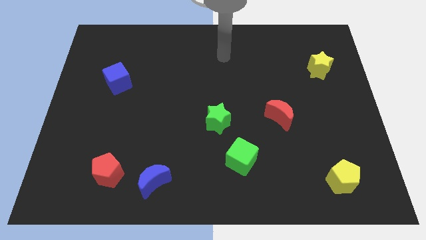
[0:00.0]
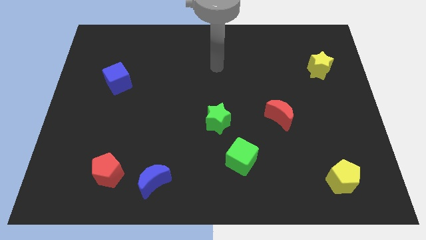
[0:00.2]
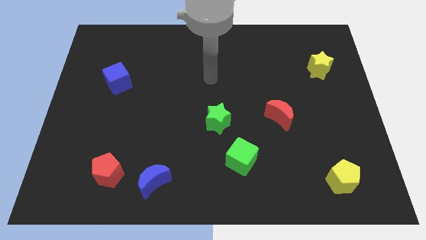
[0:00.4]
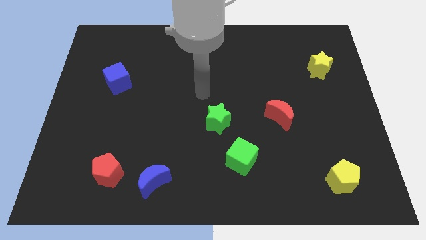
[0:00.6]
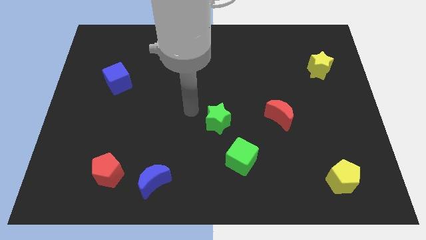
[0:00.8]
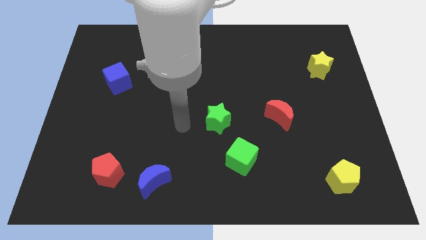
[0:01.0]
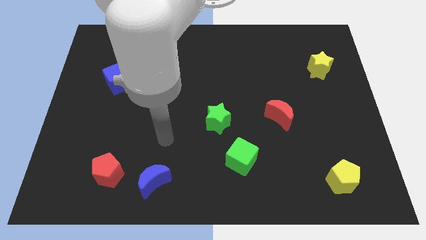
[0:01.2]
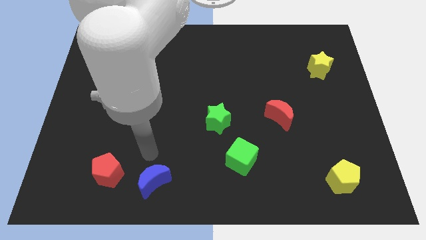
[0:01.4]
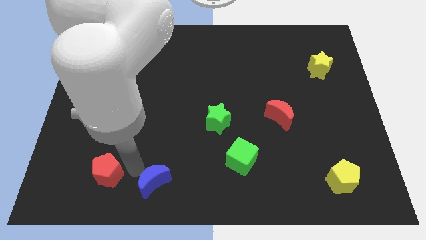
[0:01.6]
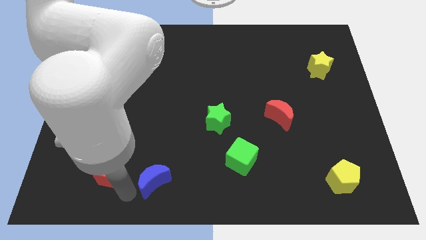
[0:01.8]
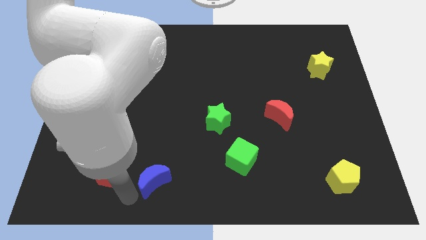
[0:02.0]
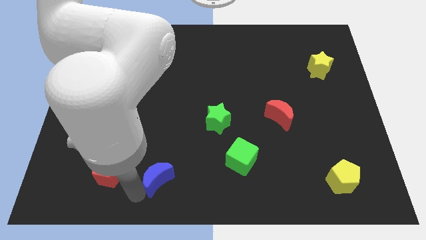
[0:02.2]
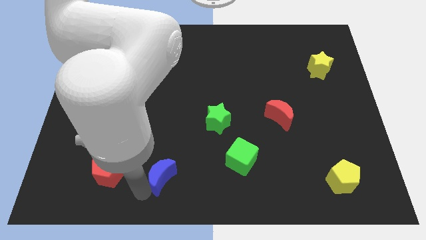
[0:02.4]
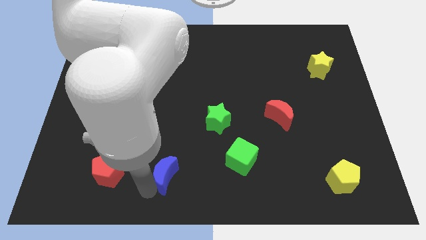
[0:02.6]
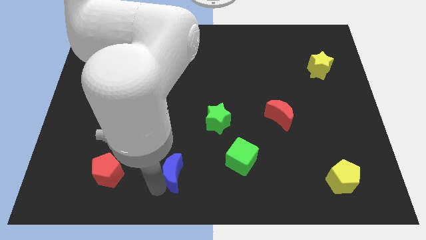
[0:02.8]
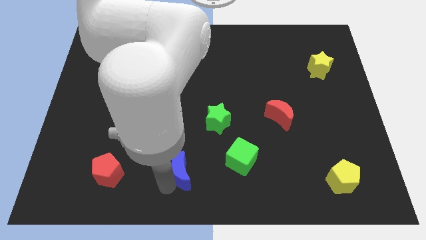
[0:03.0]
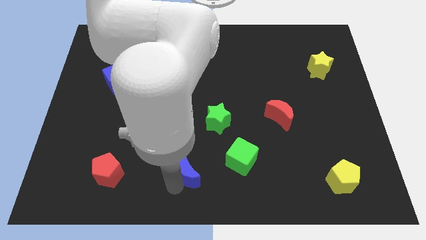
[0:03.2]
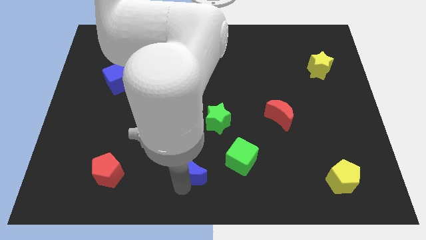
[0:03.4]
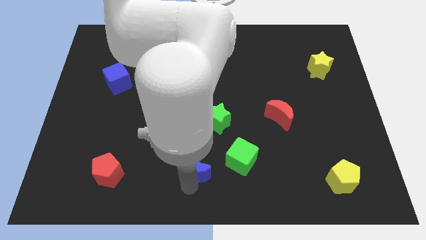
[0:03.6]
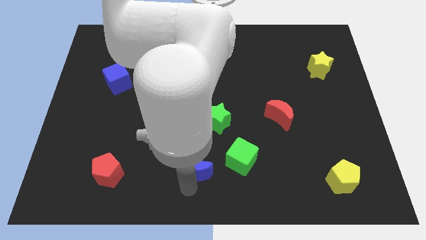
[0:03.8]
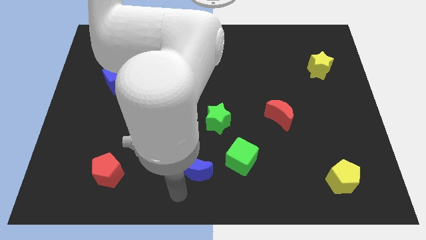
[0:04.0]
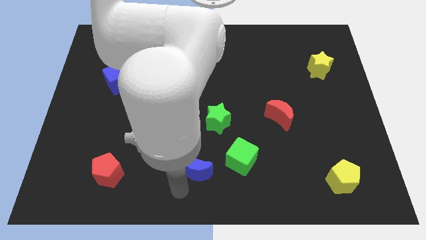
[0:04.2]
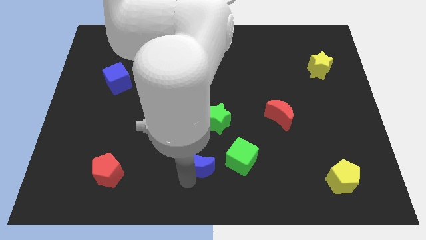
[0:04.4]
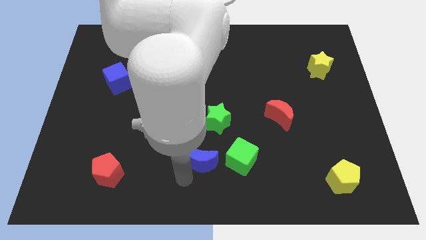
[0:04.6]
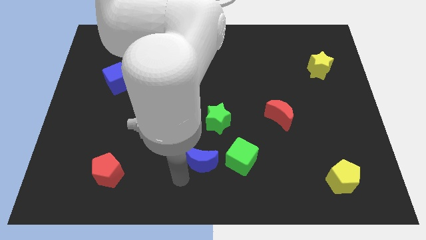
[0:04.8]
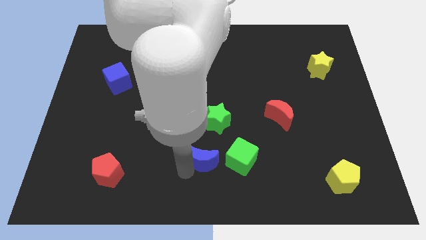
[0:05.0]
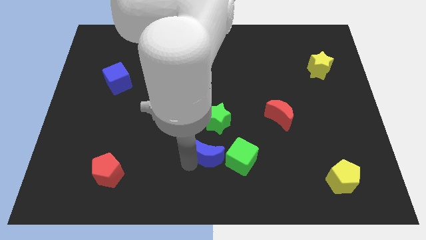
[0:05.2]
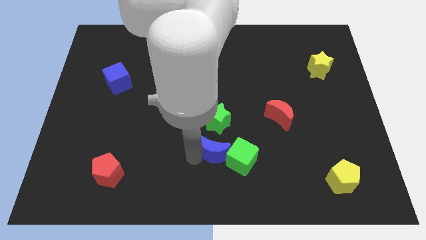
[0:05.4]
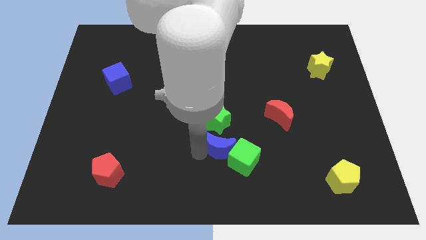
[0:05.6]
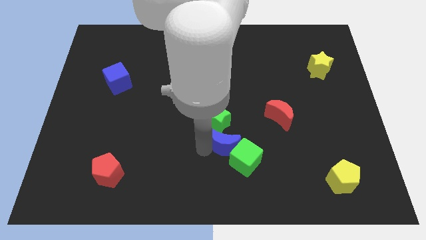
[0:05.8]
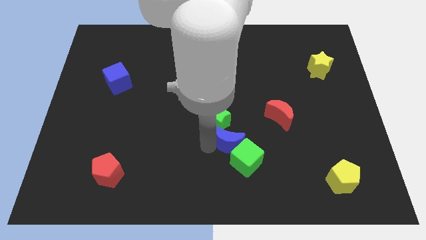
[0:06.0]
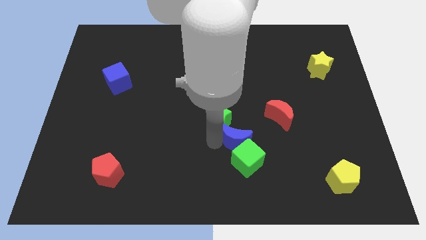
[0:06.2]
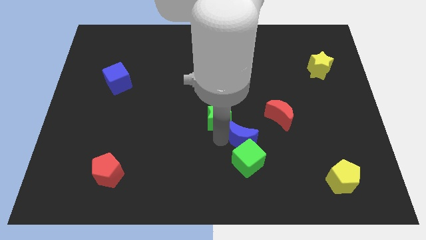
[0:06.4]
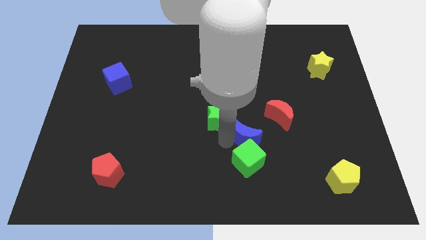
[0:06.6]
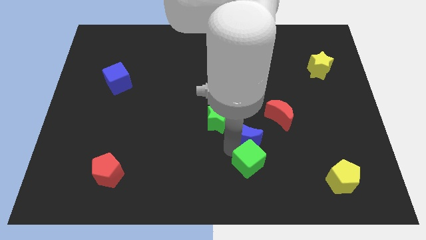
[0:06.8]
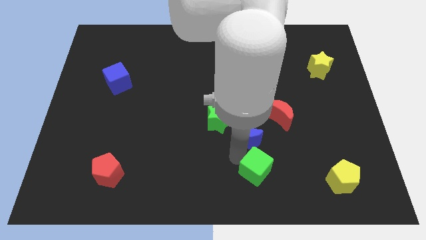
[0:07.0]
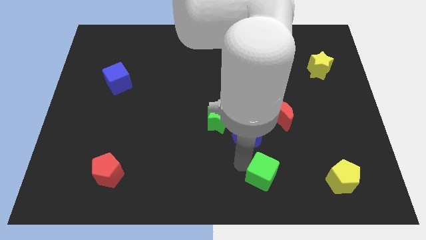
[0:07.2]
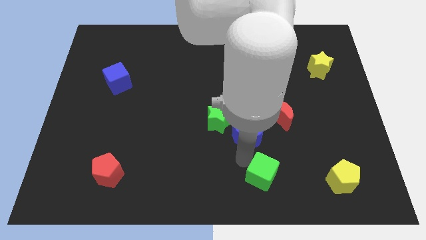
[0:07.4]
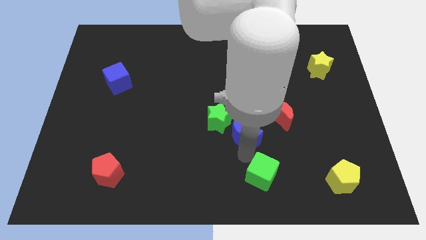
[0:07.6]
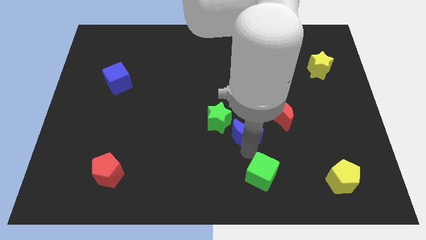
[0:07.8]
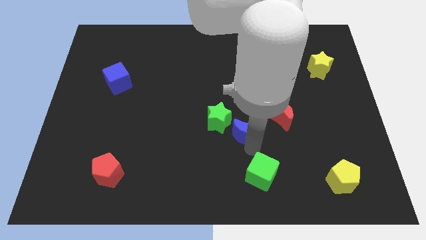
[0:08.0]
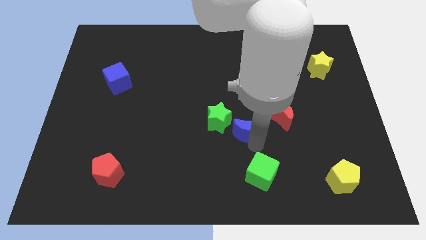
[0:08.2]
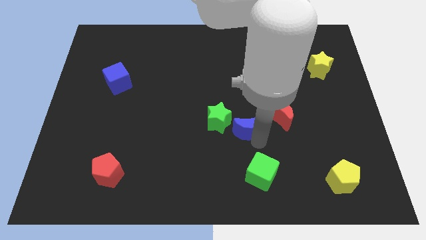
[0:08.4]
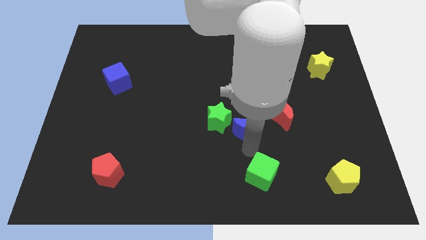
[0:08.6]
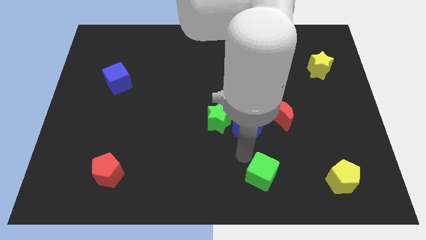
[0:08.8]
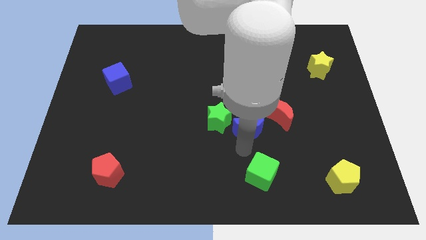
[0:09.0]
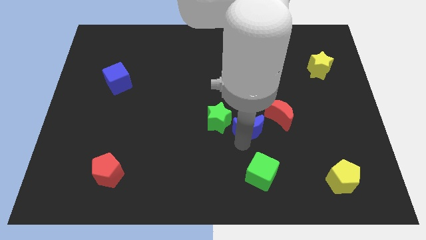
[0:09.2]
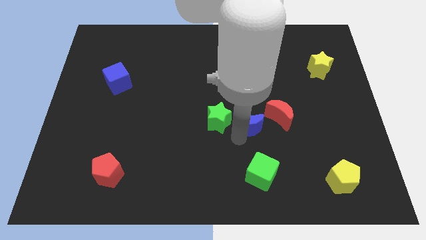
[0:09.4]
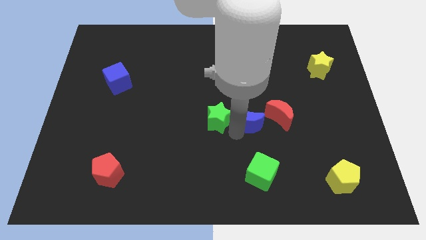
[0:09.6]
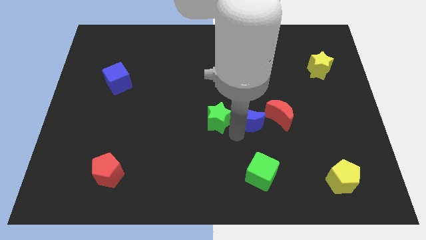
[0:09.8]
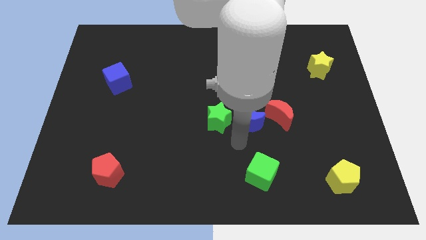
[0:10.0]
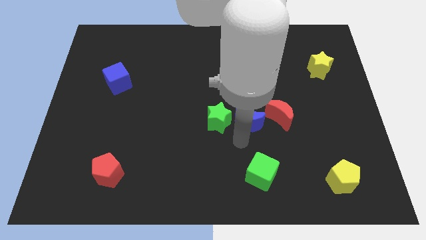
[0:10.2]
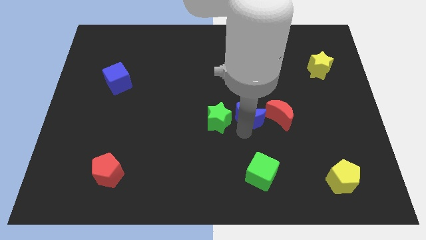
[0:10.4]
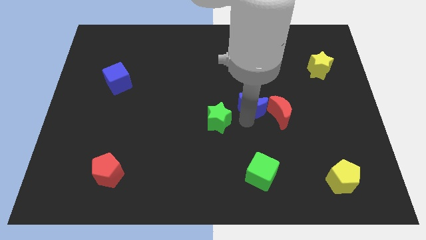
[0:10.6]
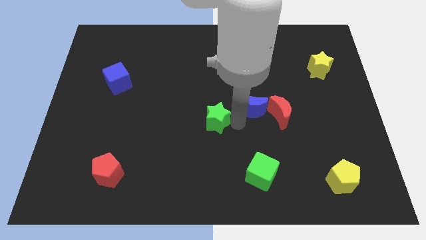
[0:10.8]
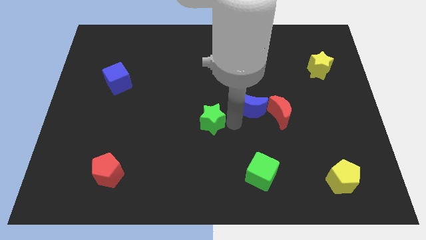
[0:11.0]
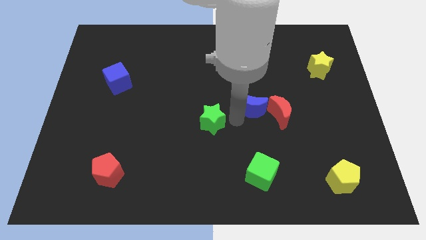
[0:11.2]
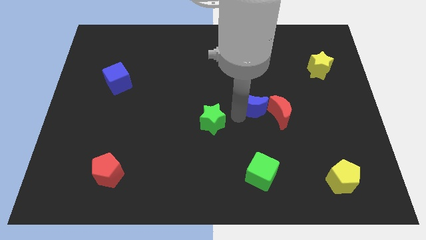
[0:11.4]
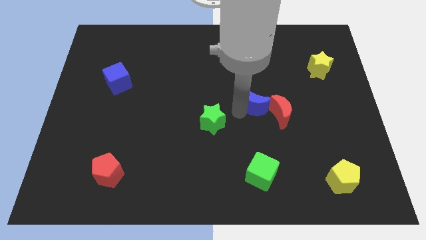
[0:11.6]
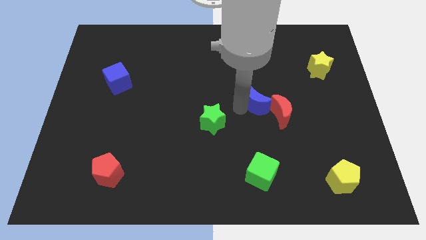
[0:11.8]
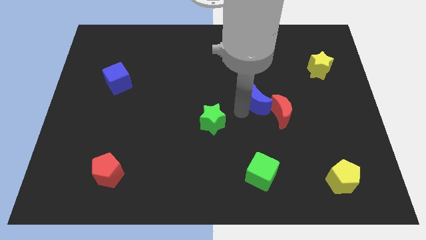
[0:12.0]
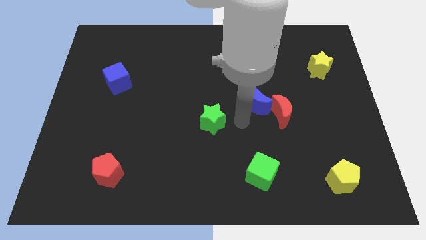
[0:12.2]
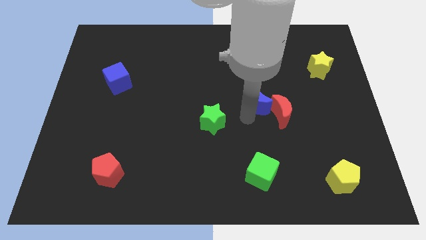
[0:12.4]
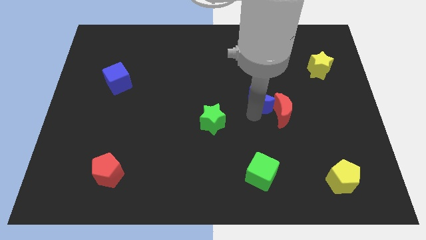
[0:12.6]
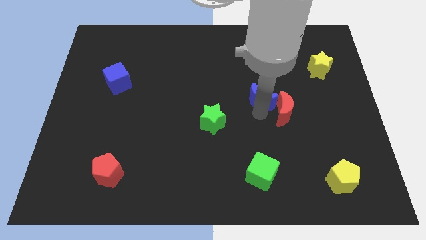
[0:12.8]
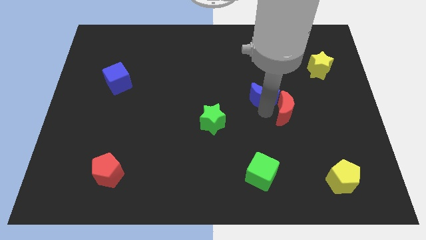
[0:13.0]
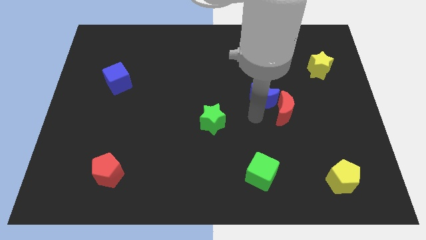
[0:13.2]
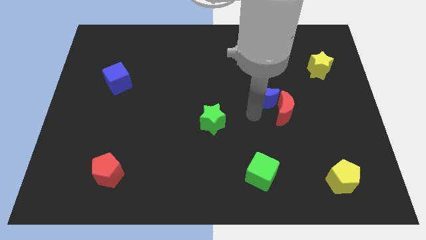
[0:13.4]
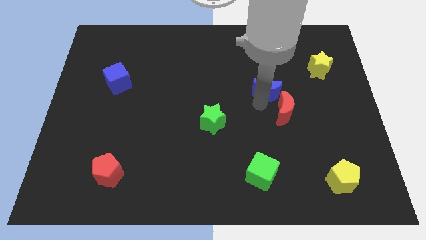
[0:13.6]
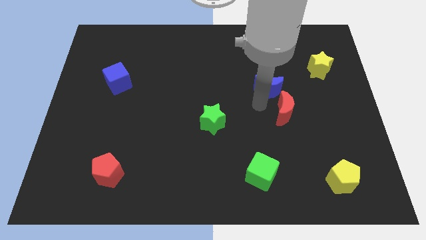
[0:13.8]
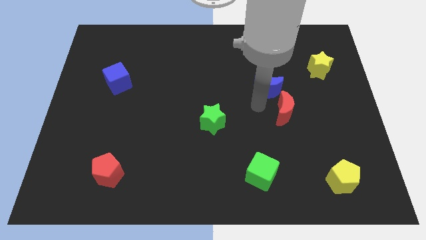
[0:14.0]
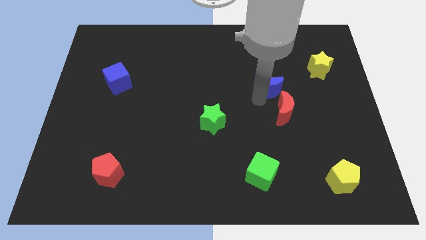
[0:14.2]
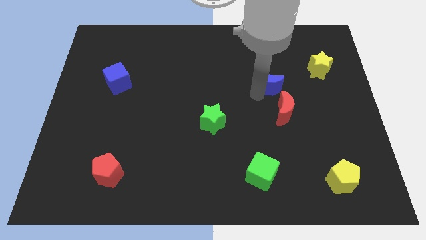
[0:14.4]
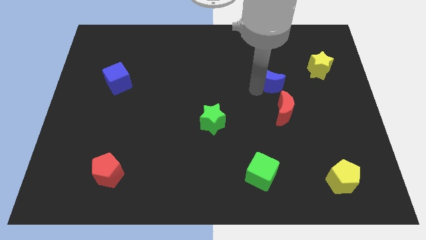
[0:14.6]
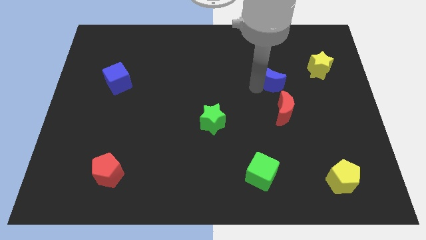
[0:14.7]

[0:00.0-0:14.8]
move the blue moon just left of the yellow star

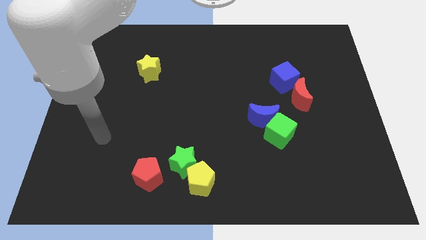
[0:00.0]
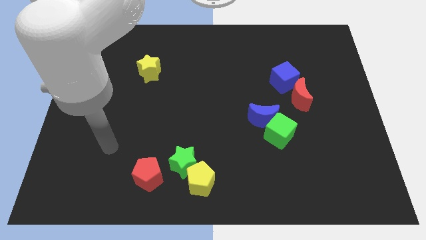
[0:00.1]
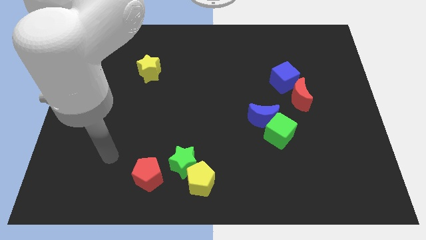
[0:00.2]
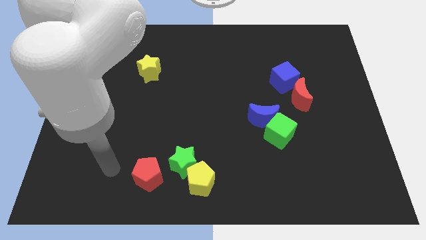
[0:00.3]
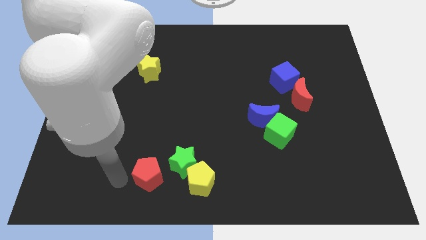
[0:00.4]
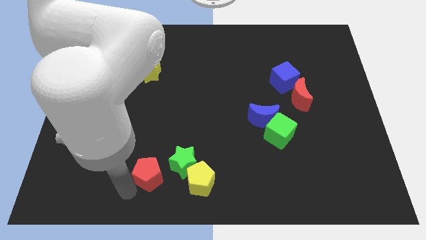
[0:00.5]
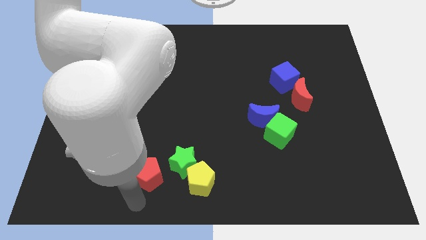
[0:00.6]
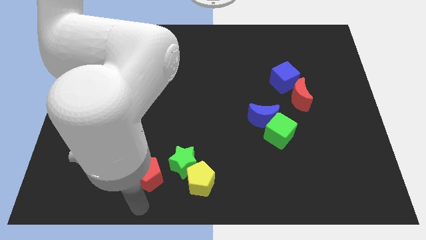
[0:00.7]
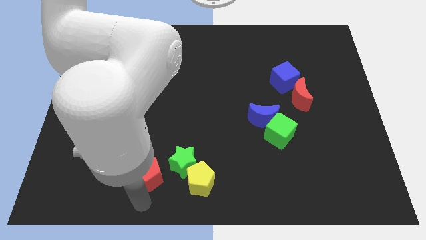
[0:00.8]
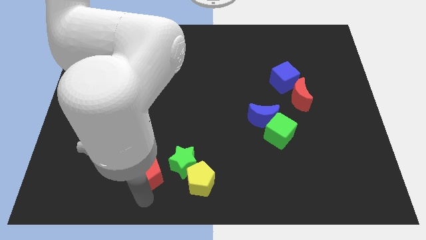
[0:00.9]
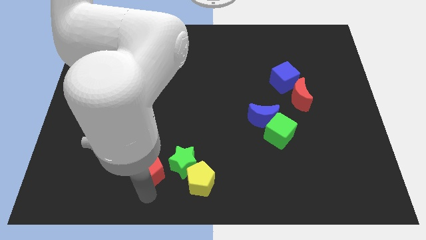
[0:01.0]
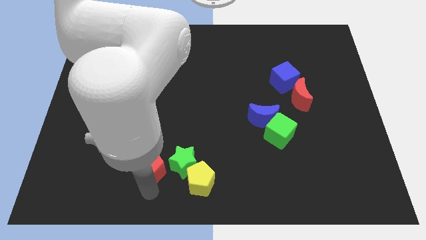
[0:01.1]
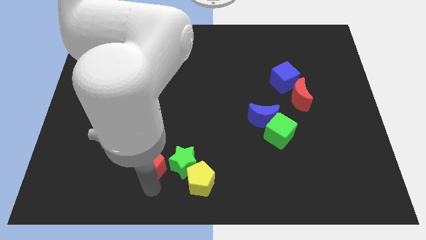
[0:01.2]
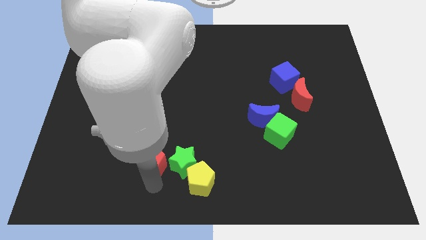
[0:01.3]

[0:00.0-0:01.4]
slide the red pentagon to the top left of the green star
